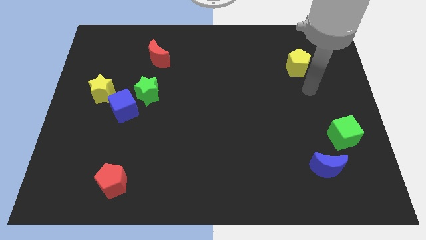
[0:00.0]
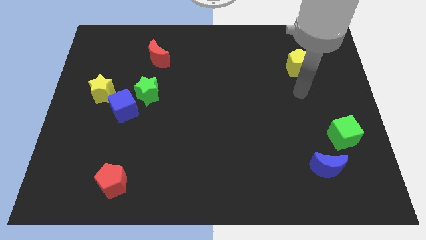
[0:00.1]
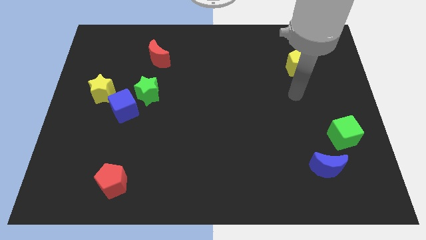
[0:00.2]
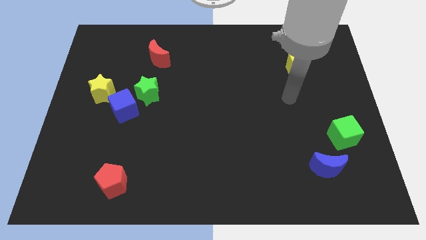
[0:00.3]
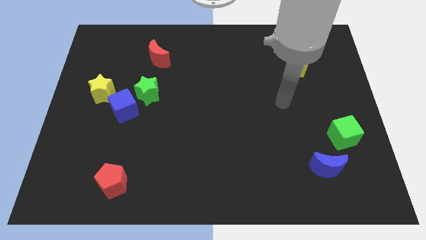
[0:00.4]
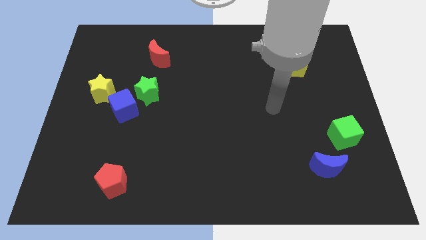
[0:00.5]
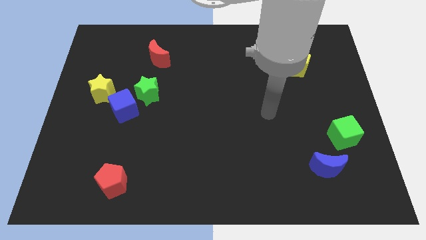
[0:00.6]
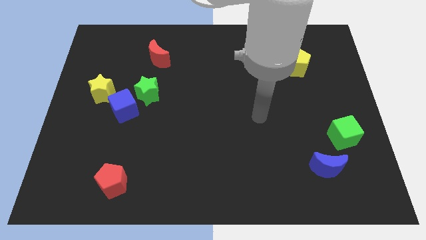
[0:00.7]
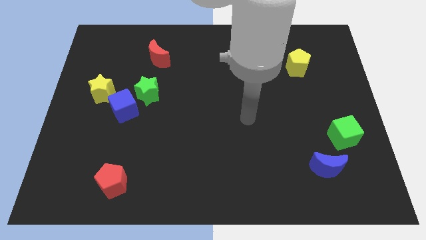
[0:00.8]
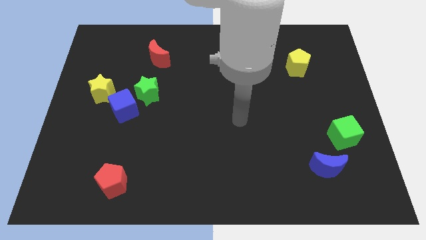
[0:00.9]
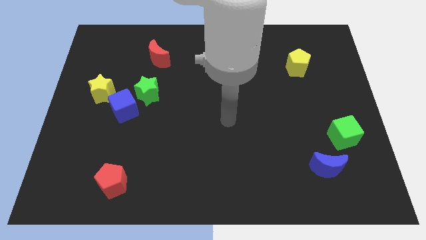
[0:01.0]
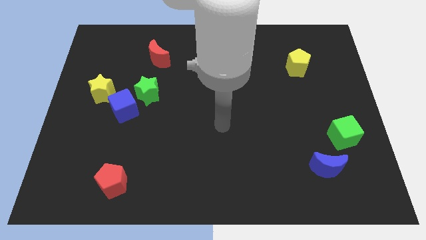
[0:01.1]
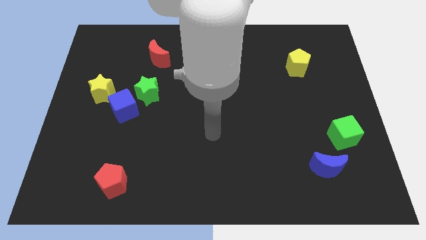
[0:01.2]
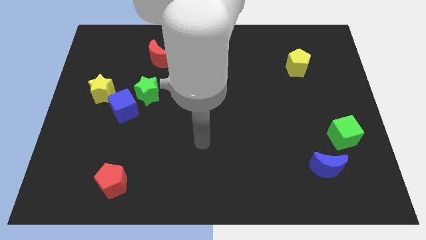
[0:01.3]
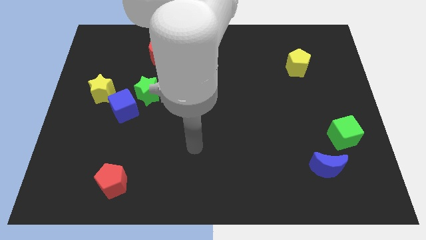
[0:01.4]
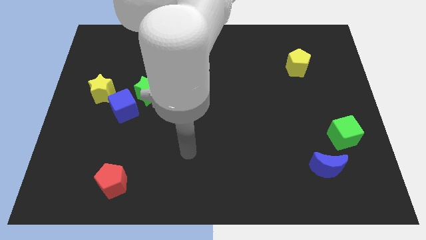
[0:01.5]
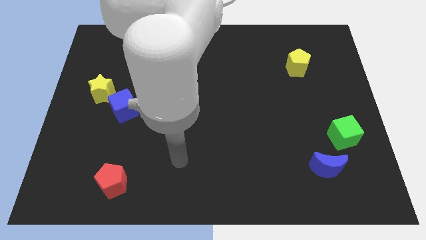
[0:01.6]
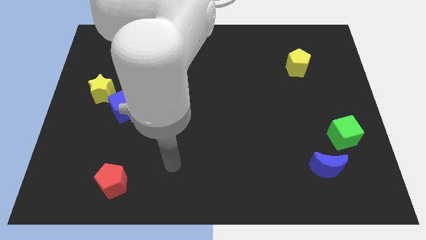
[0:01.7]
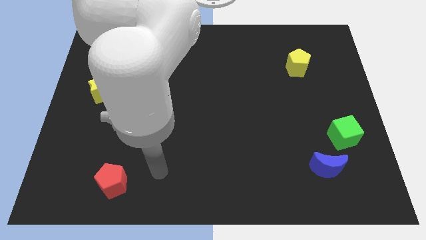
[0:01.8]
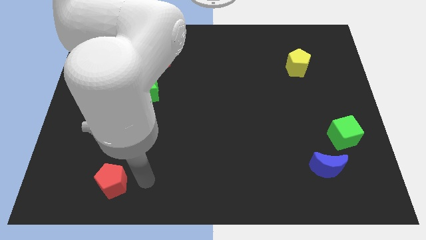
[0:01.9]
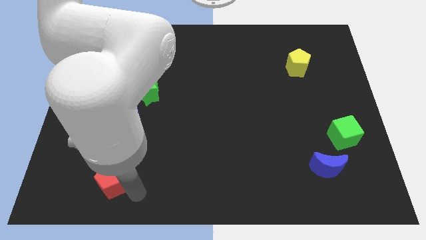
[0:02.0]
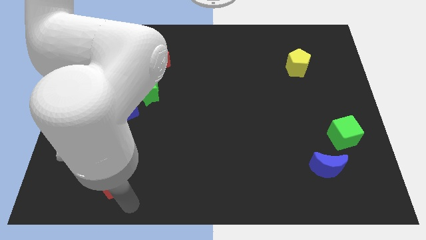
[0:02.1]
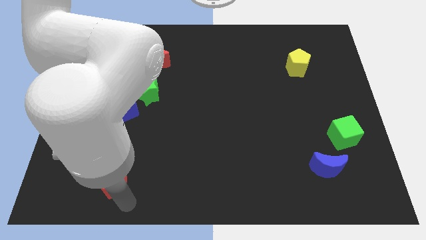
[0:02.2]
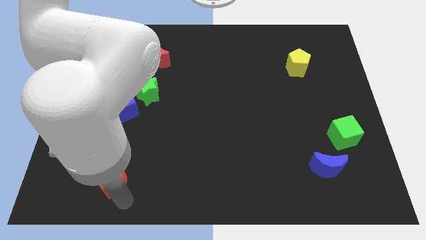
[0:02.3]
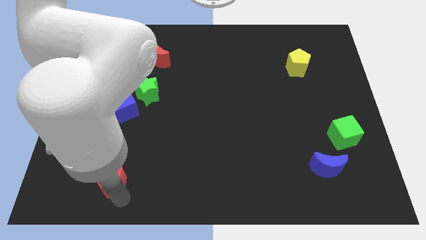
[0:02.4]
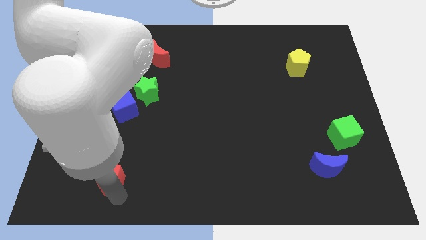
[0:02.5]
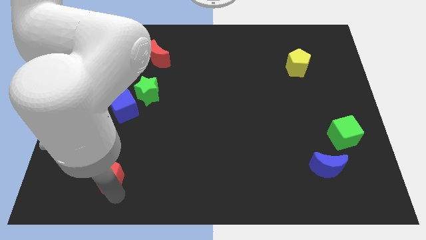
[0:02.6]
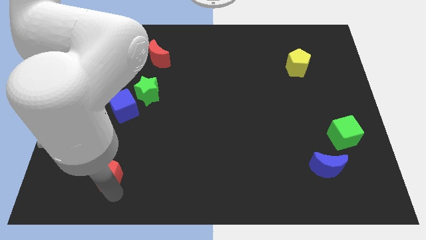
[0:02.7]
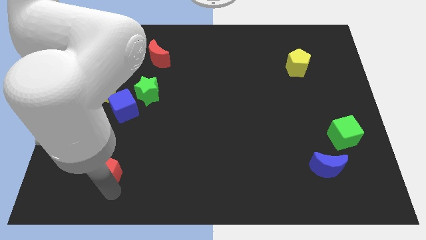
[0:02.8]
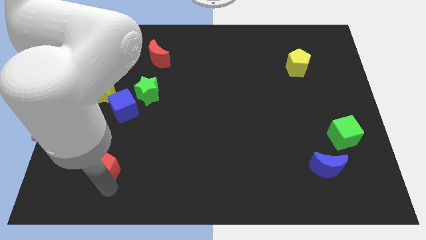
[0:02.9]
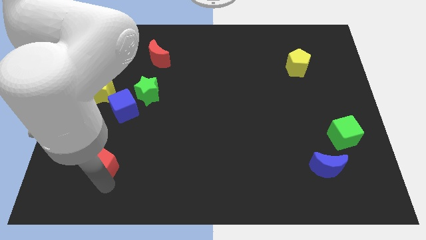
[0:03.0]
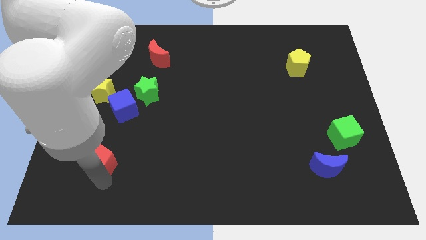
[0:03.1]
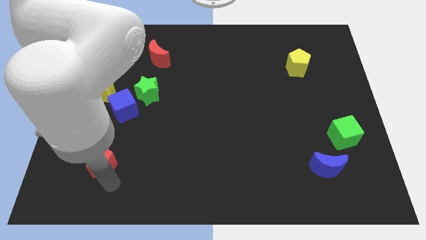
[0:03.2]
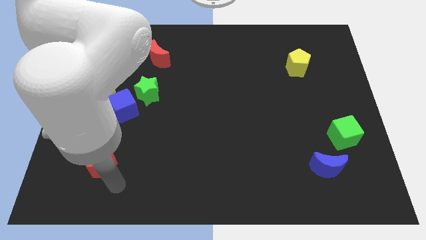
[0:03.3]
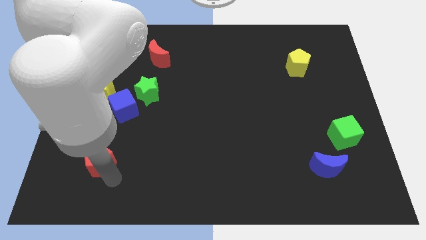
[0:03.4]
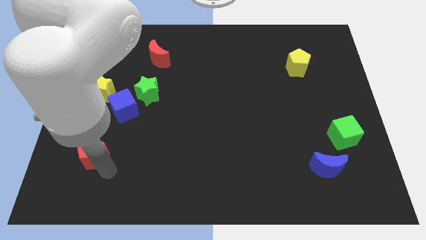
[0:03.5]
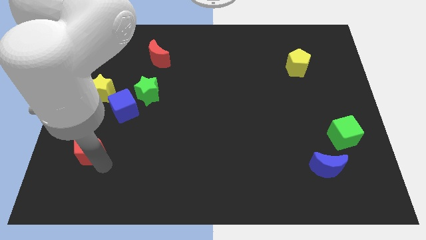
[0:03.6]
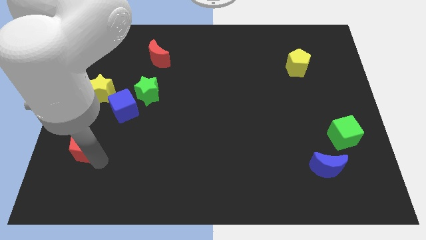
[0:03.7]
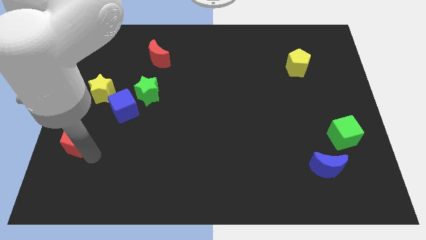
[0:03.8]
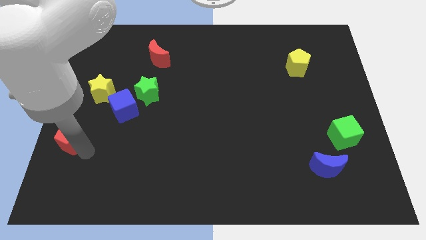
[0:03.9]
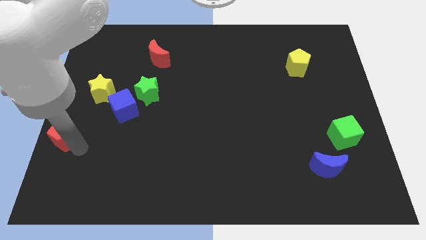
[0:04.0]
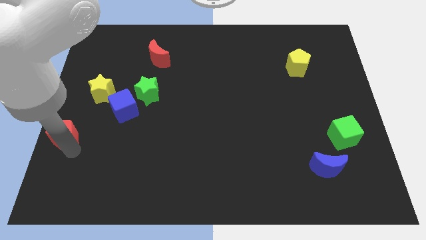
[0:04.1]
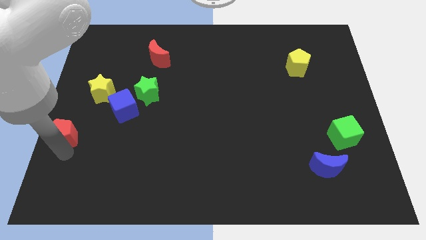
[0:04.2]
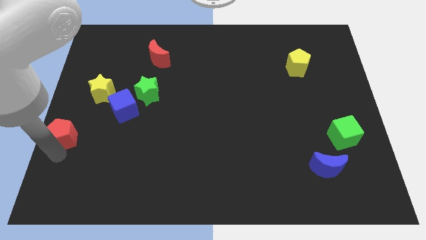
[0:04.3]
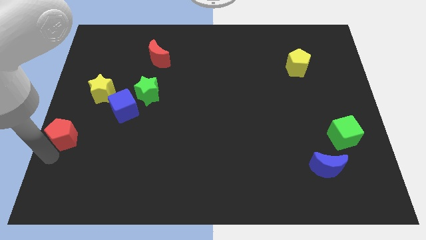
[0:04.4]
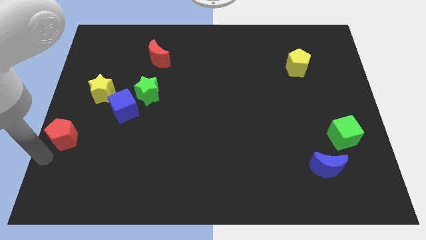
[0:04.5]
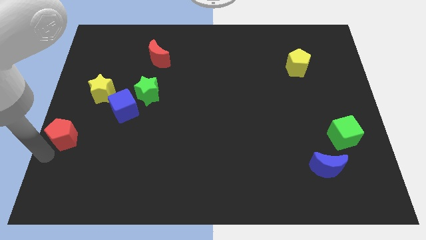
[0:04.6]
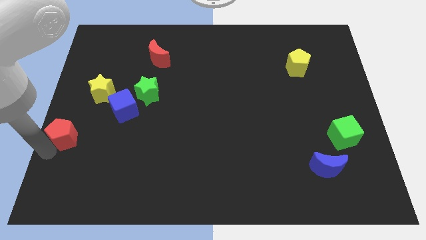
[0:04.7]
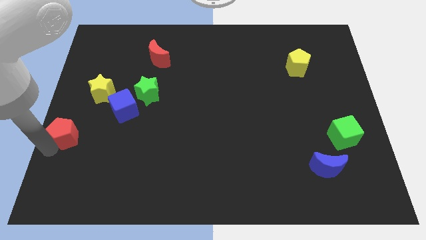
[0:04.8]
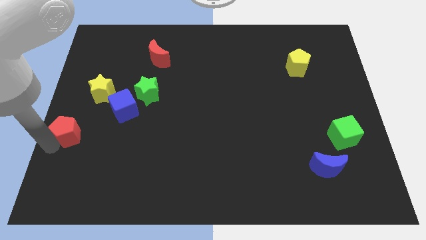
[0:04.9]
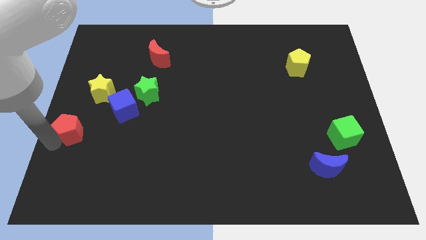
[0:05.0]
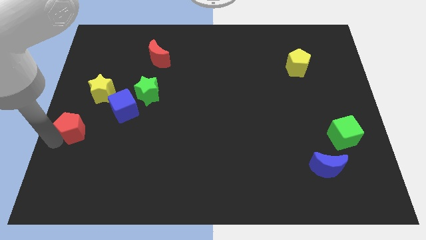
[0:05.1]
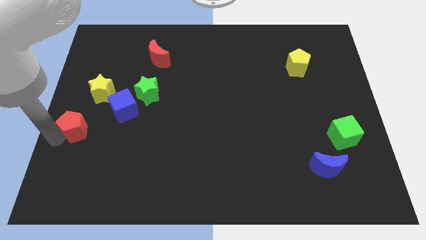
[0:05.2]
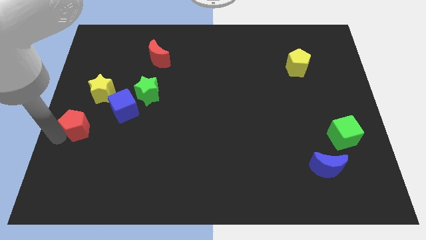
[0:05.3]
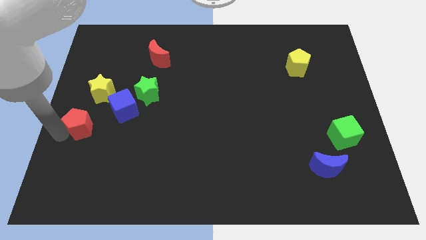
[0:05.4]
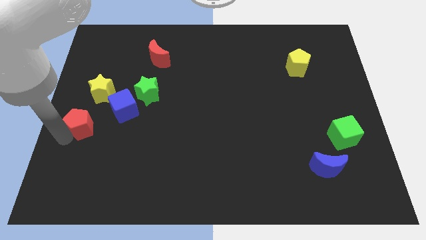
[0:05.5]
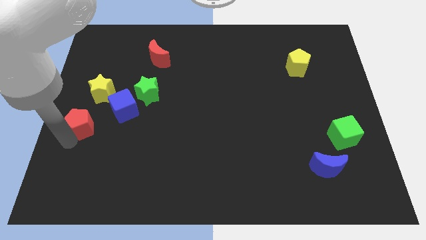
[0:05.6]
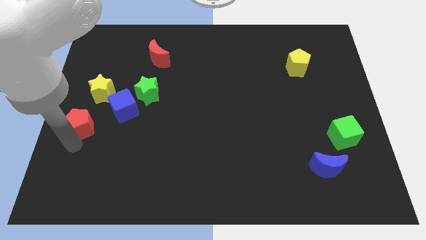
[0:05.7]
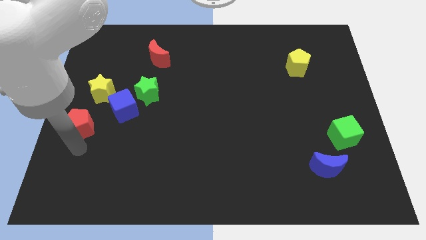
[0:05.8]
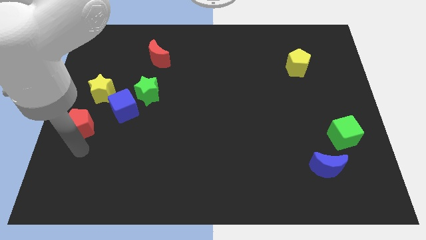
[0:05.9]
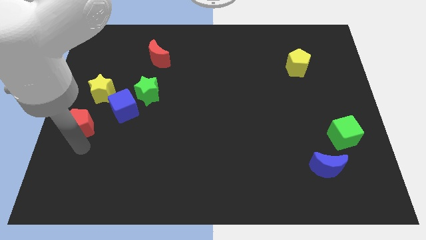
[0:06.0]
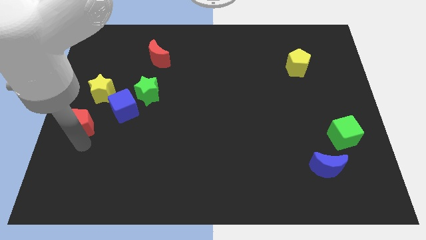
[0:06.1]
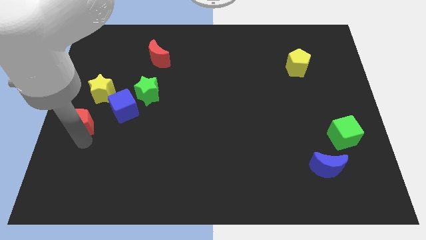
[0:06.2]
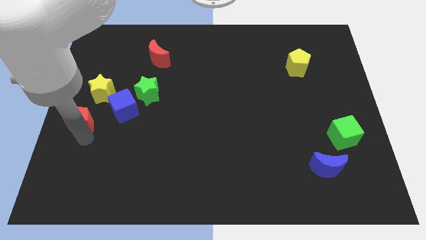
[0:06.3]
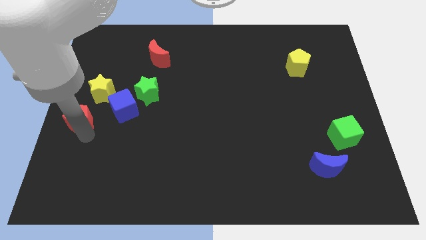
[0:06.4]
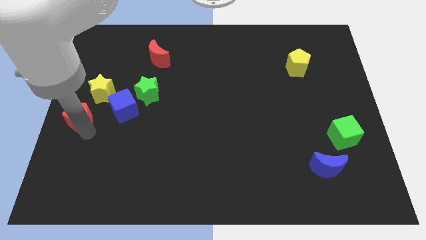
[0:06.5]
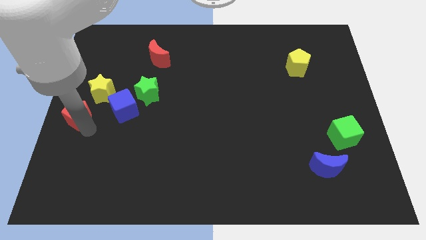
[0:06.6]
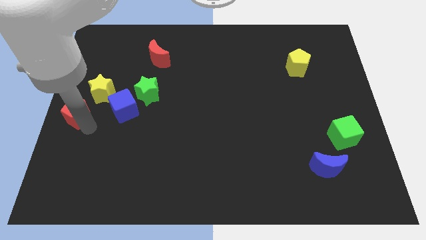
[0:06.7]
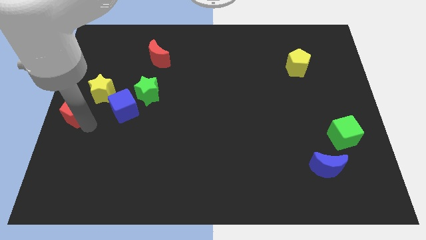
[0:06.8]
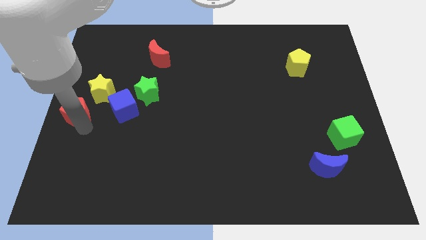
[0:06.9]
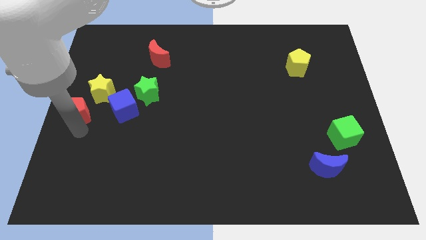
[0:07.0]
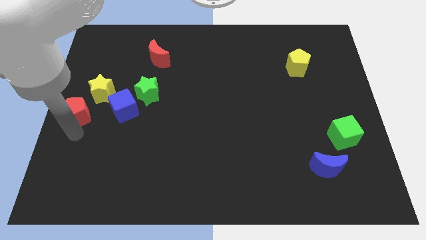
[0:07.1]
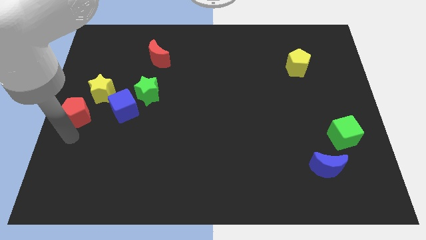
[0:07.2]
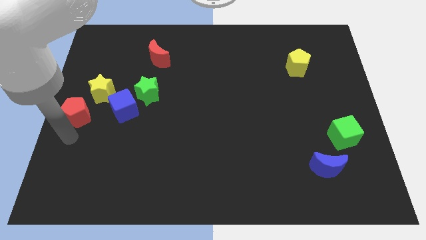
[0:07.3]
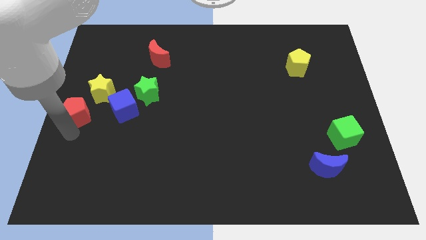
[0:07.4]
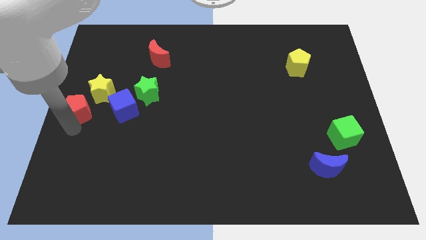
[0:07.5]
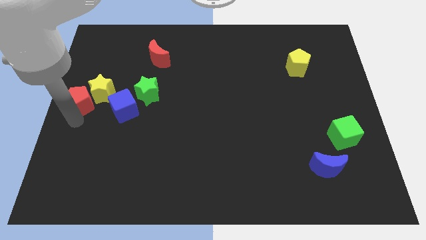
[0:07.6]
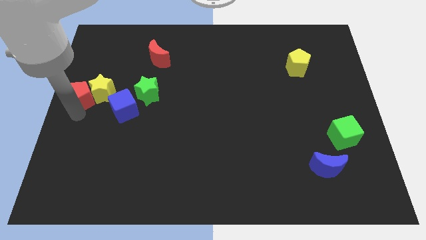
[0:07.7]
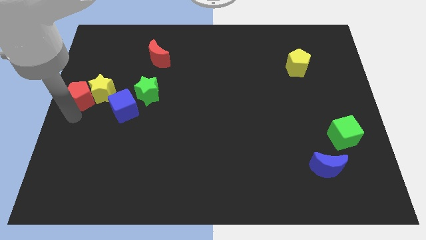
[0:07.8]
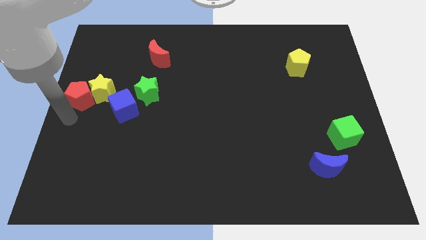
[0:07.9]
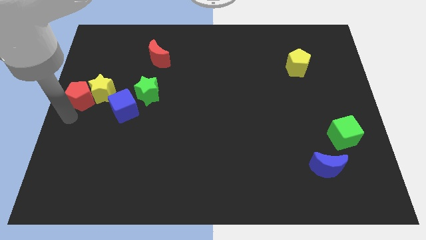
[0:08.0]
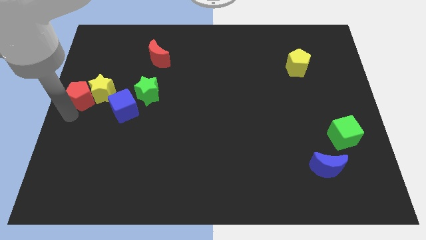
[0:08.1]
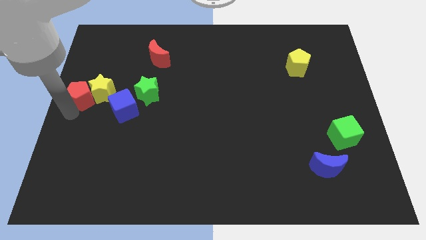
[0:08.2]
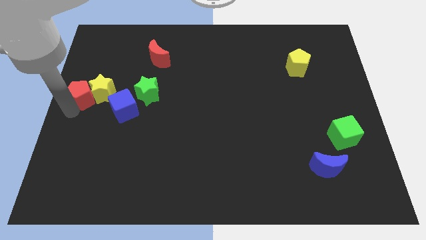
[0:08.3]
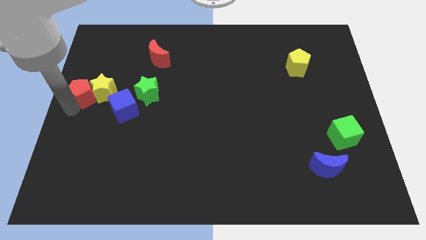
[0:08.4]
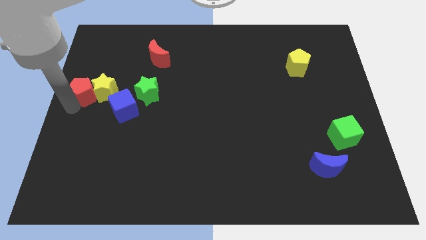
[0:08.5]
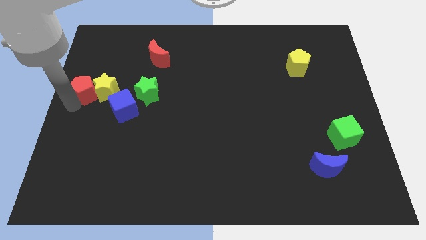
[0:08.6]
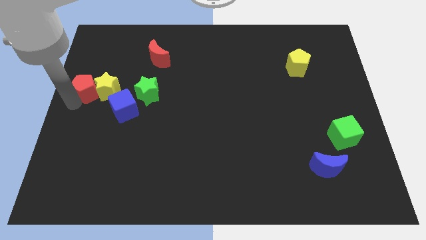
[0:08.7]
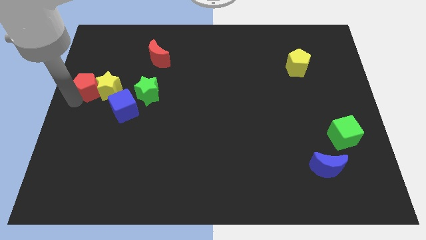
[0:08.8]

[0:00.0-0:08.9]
slide the red pentagon up
